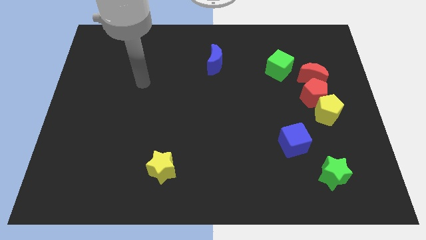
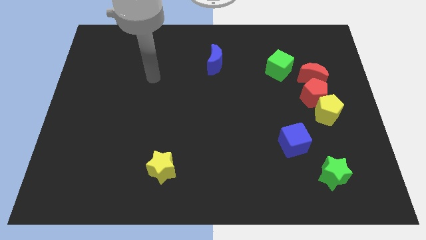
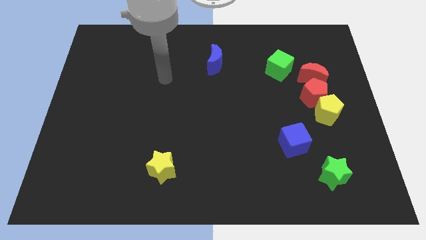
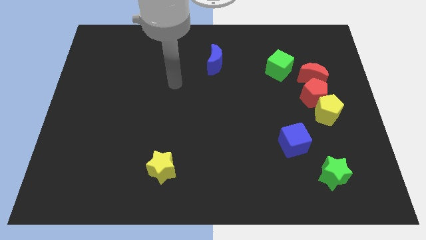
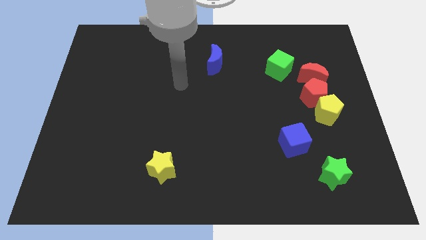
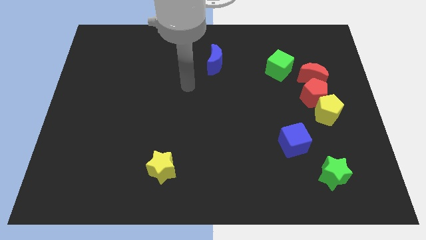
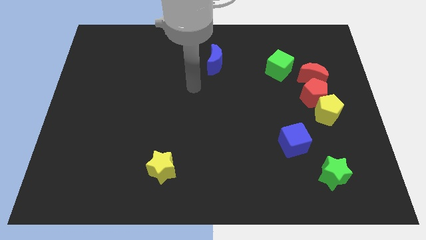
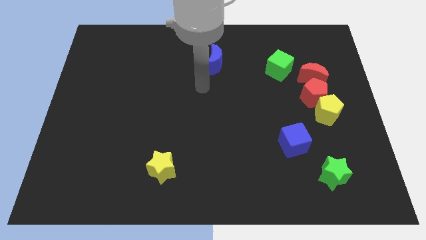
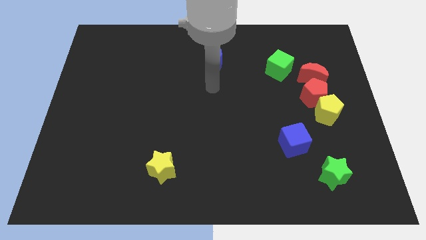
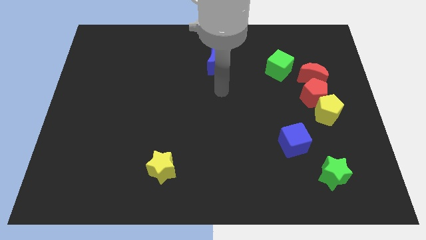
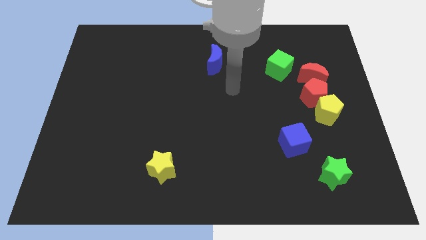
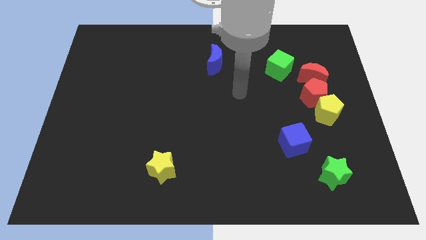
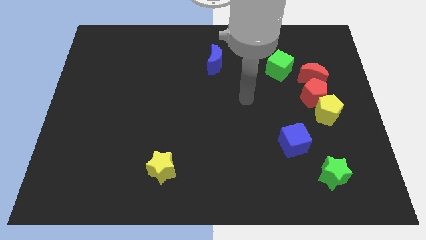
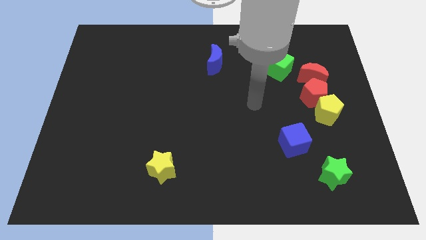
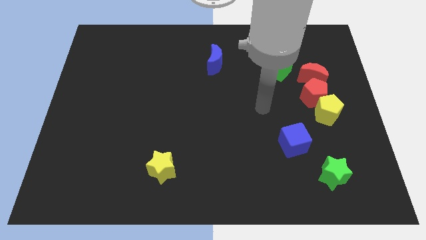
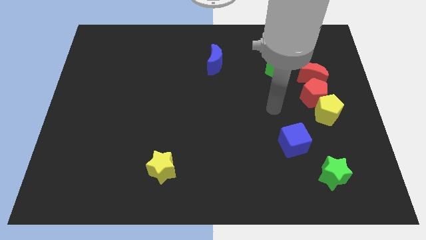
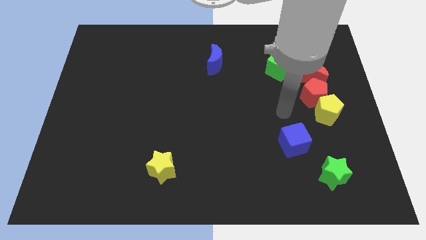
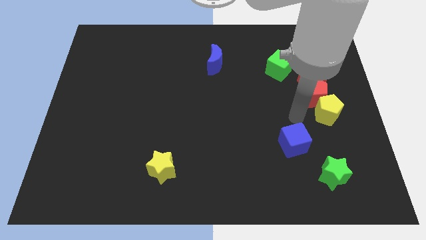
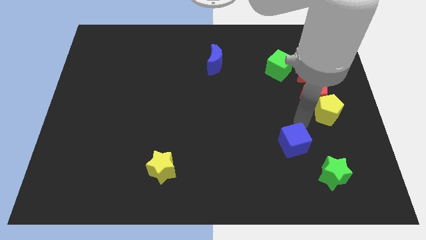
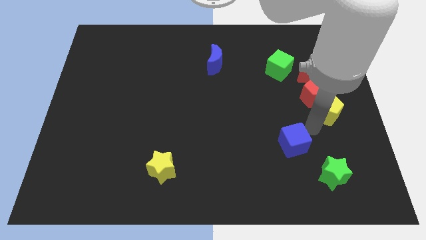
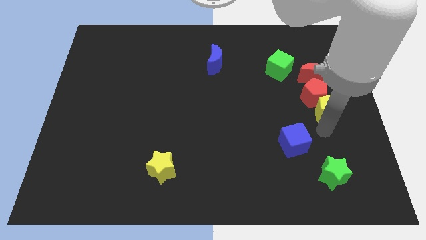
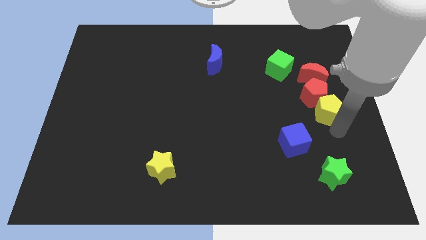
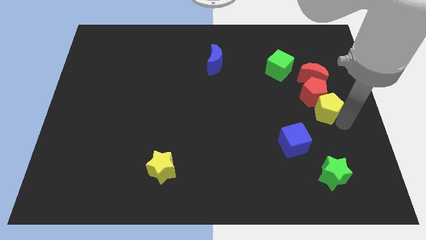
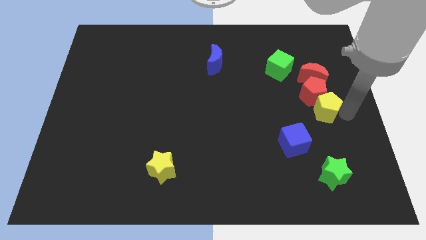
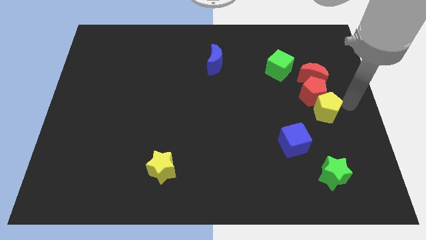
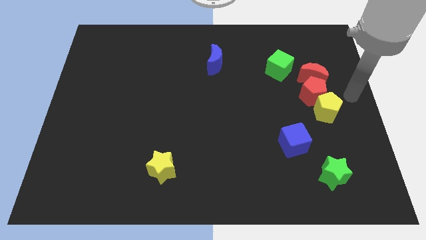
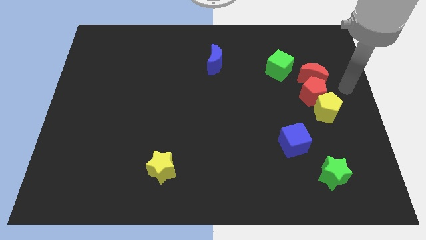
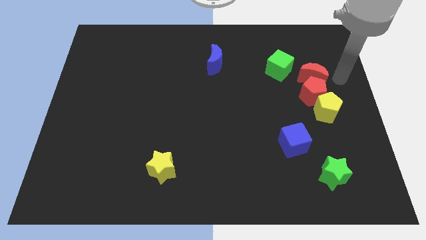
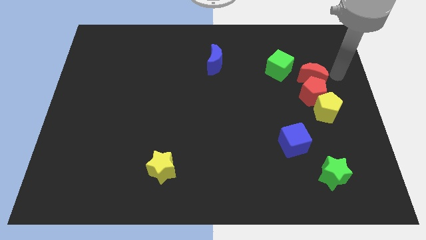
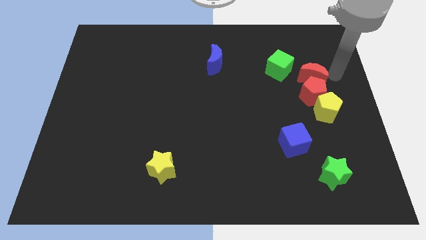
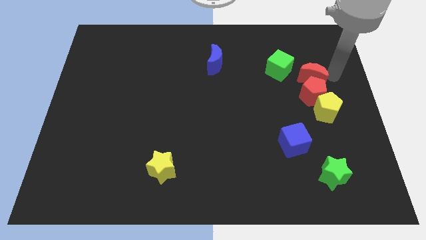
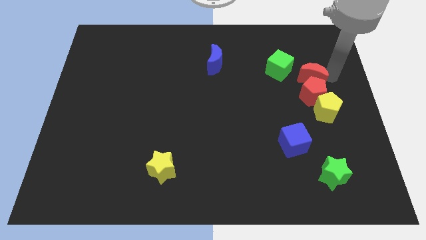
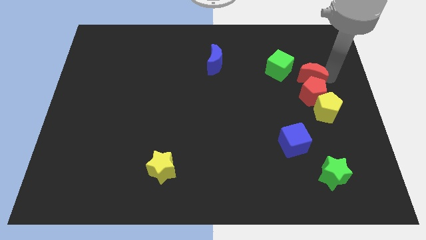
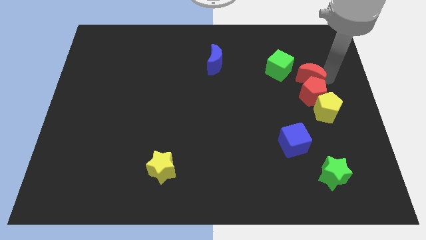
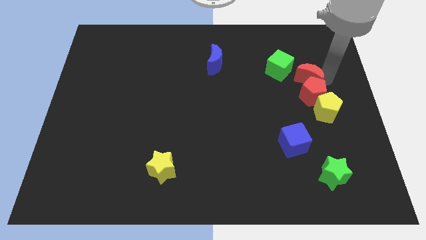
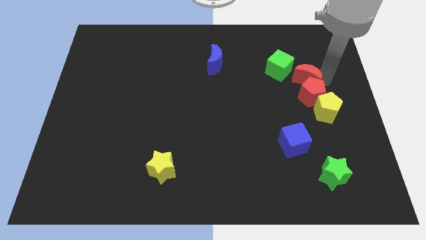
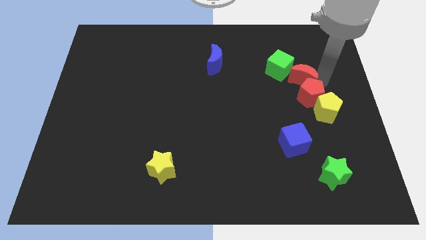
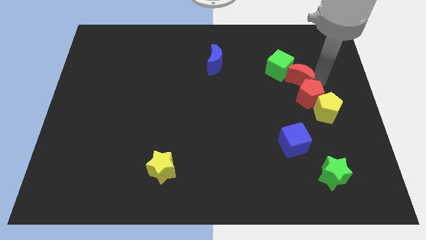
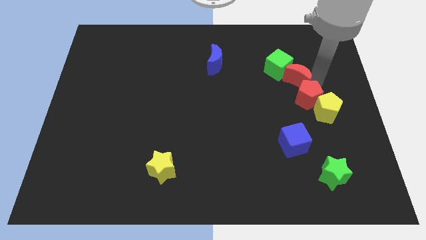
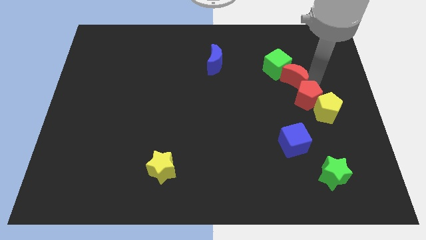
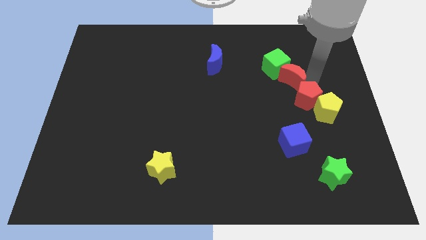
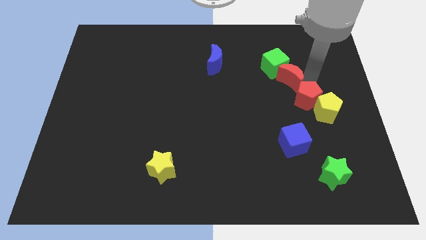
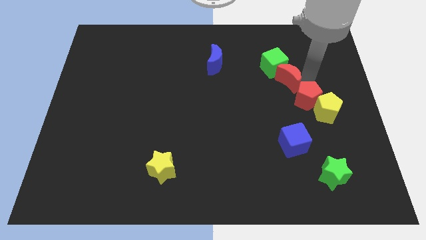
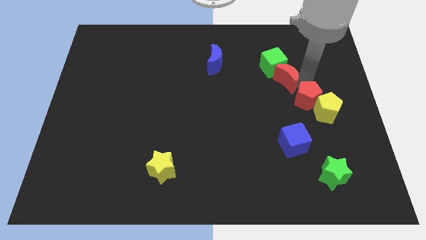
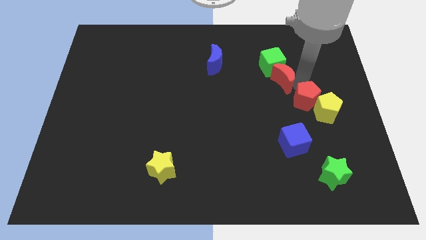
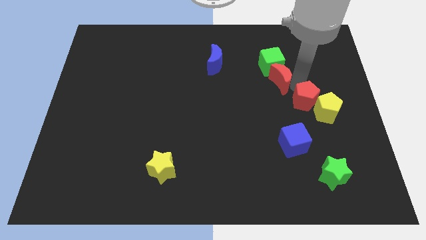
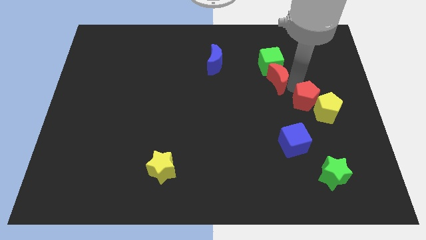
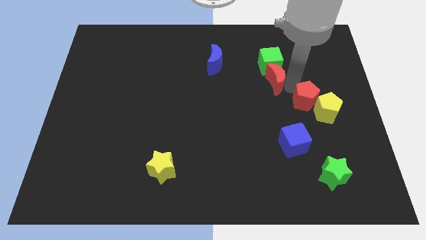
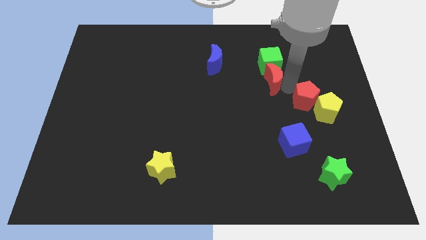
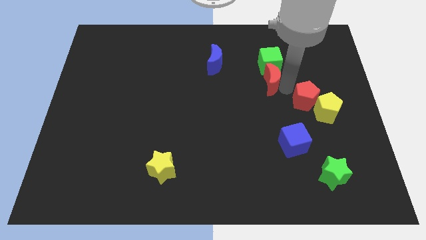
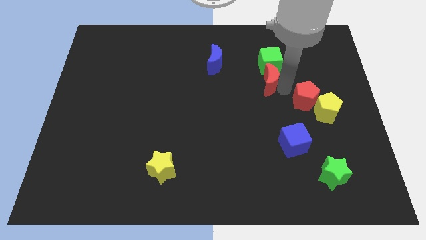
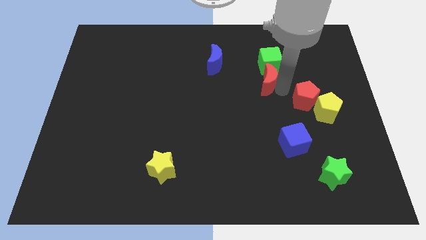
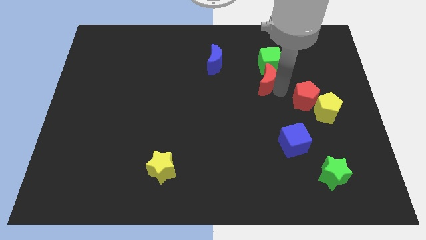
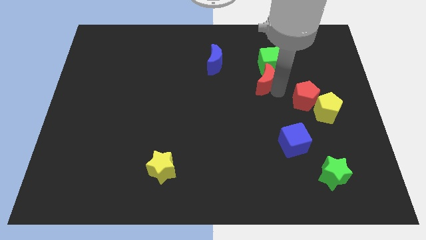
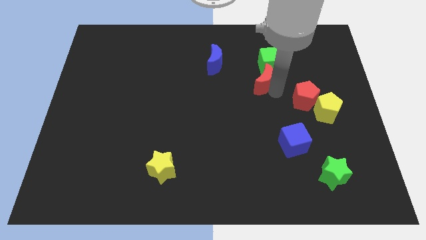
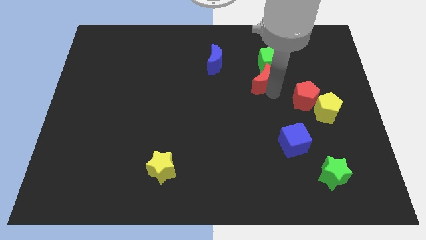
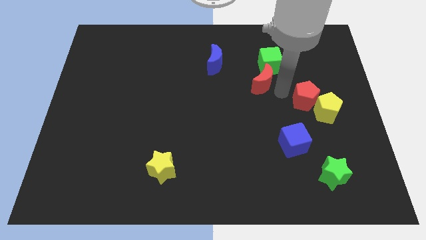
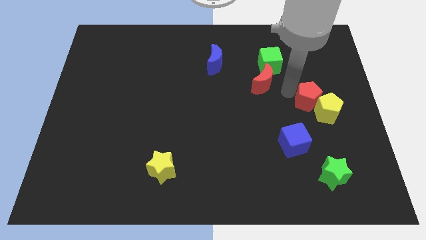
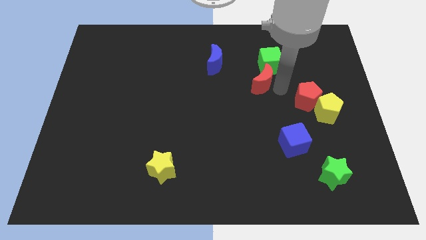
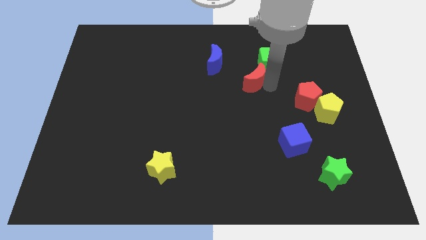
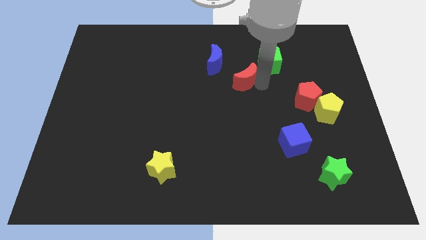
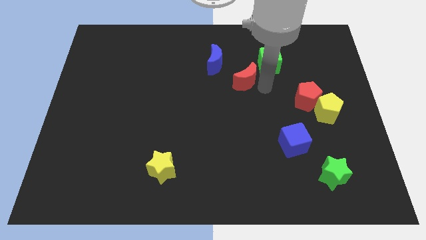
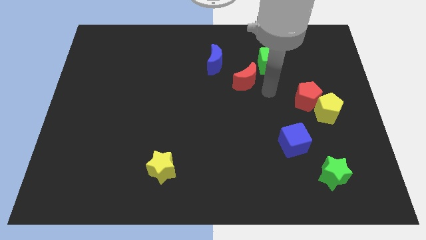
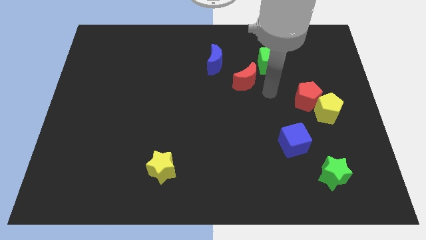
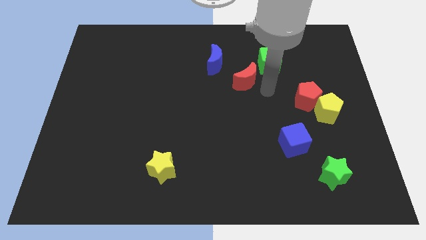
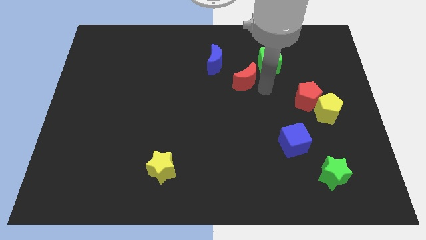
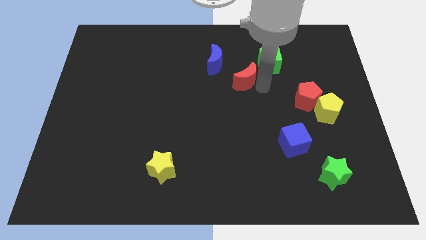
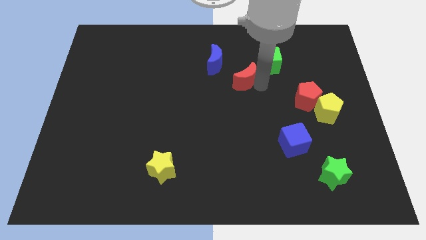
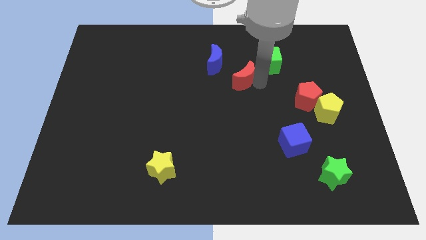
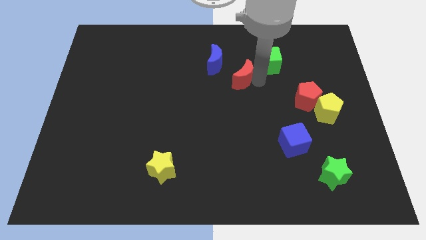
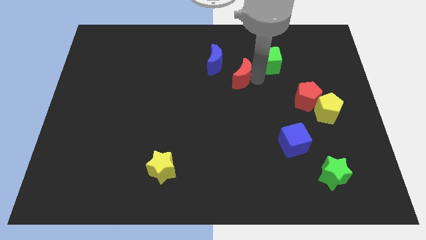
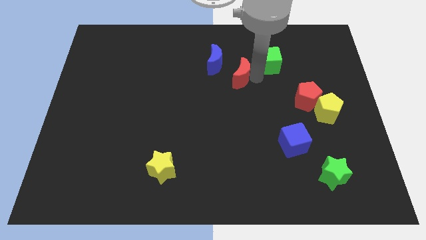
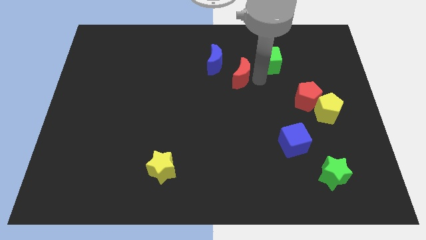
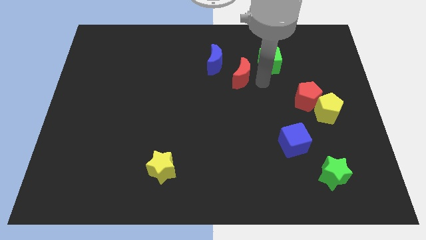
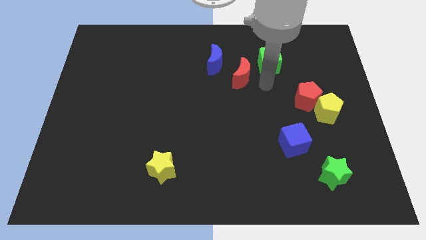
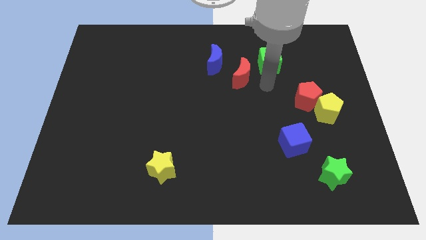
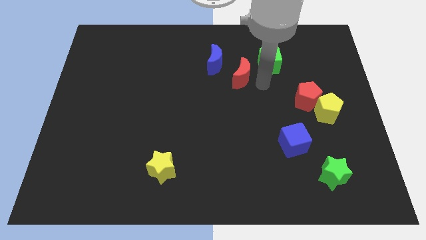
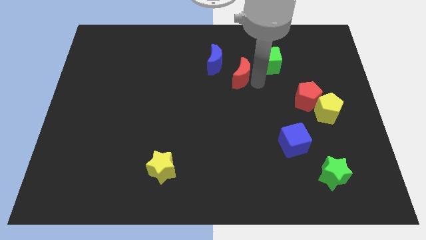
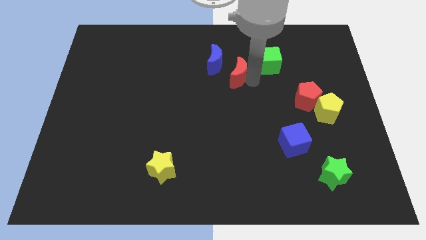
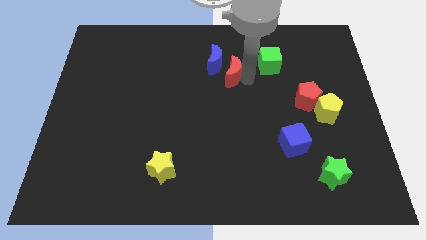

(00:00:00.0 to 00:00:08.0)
put the red moon to the blue moon
